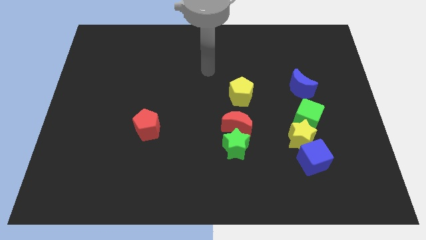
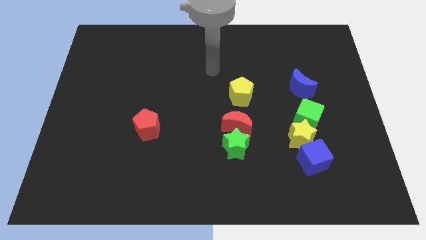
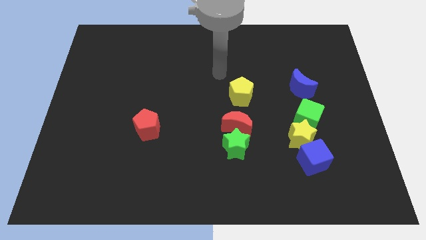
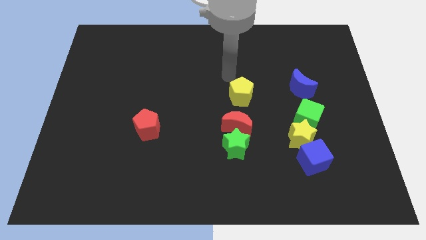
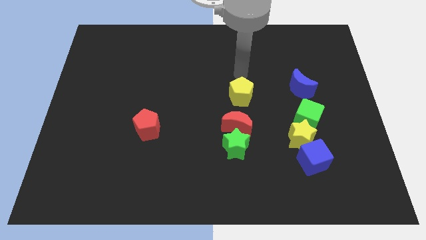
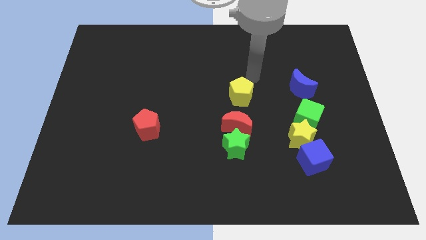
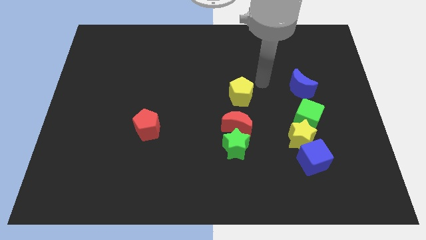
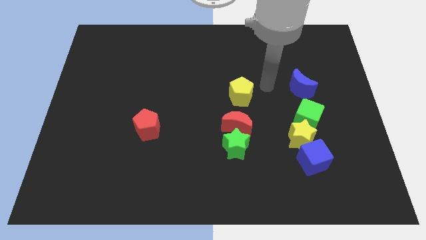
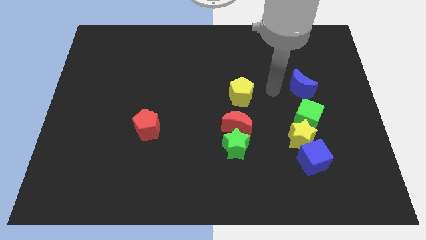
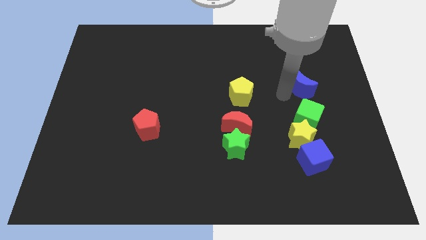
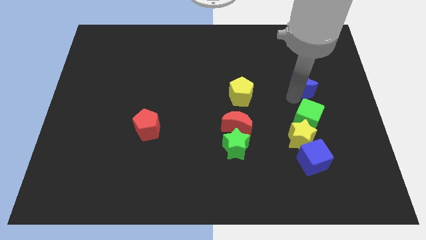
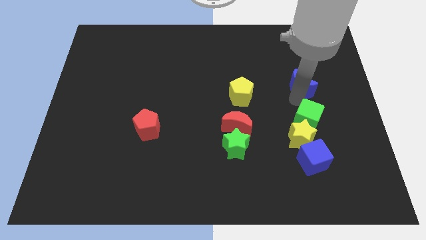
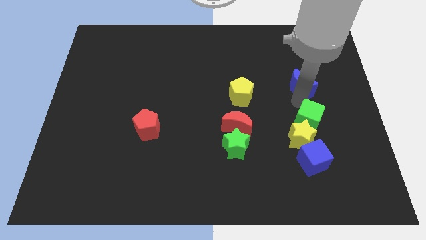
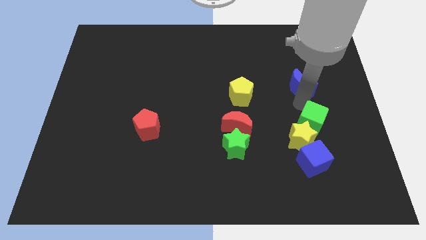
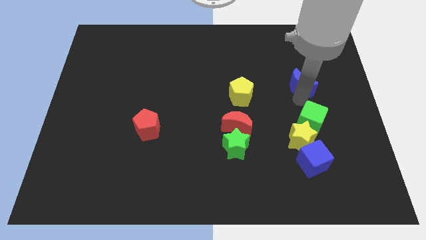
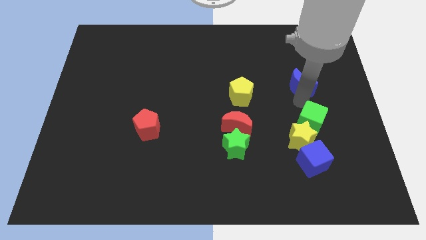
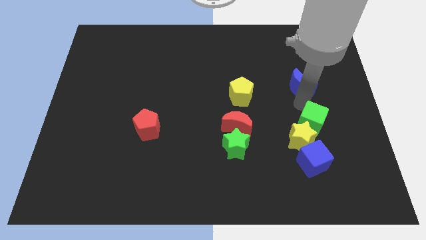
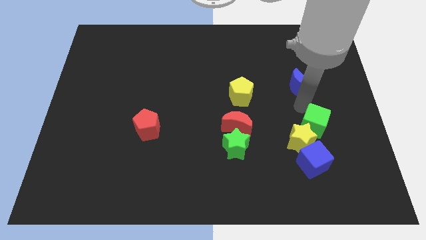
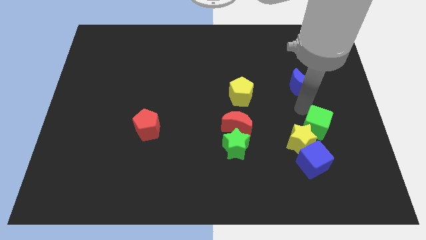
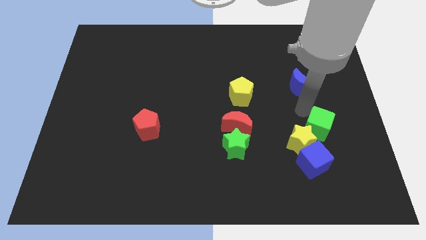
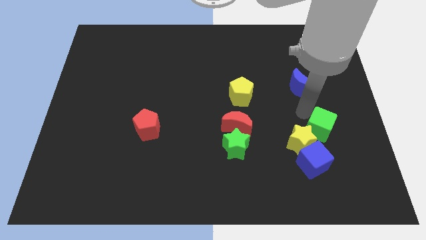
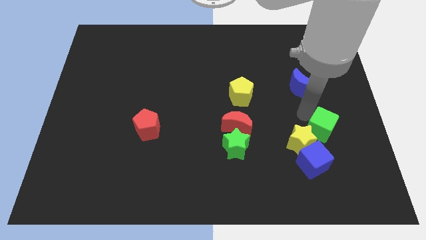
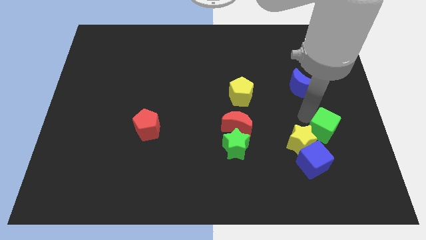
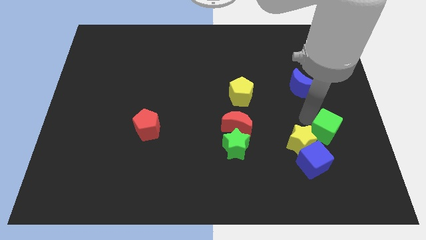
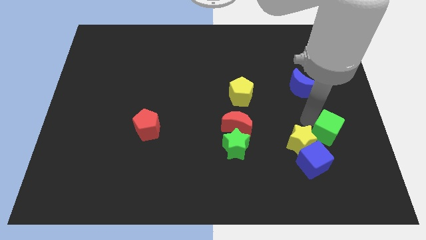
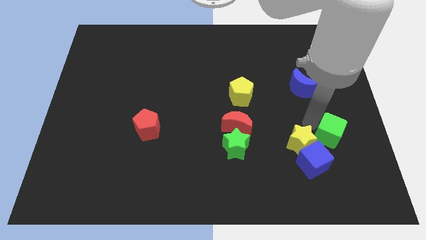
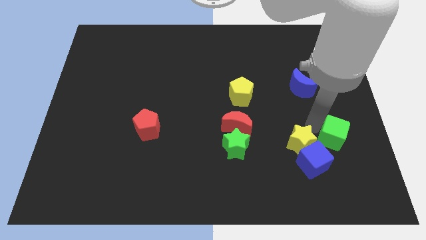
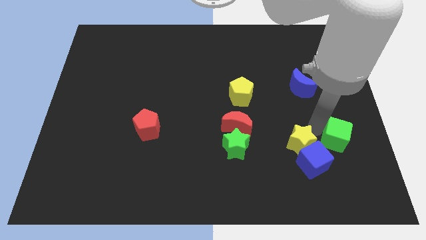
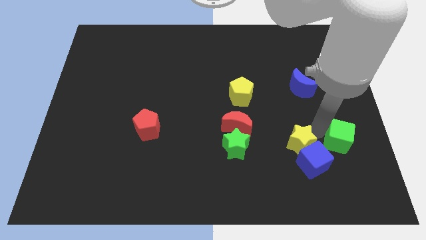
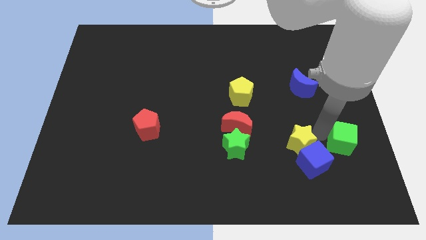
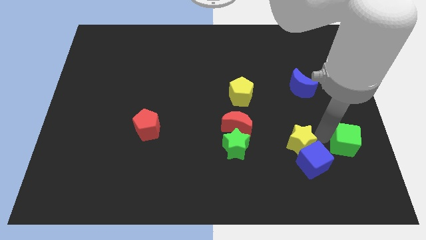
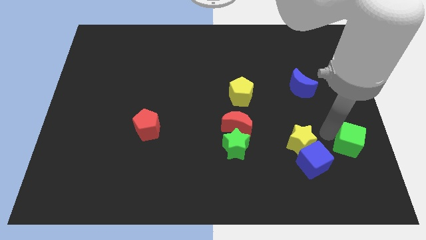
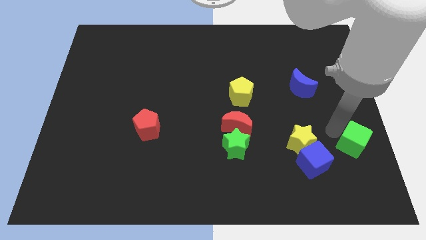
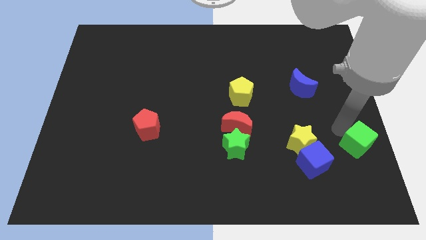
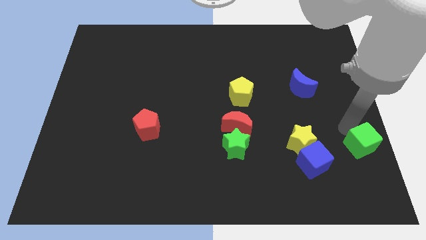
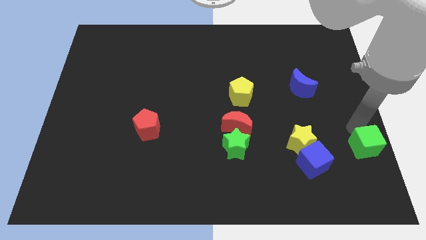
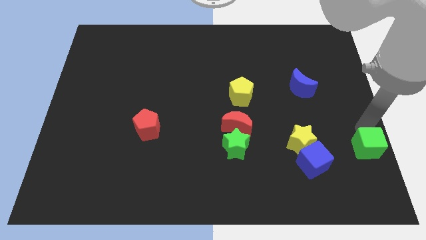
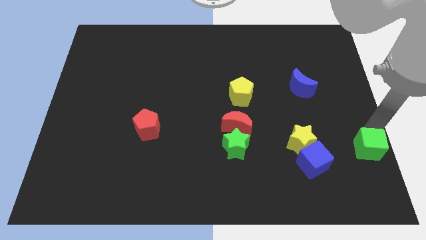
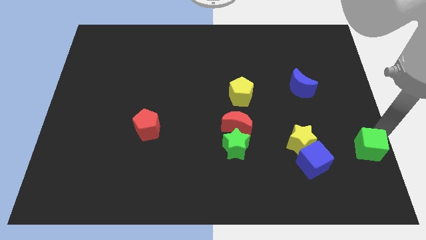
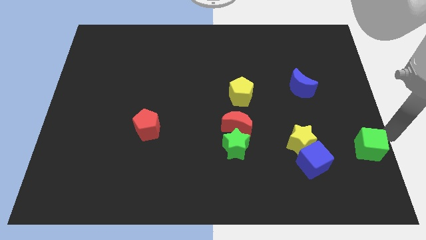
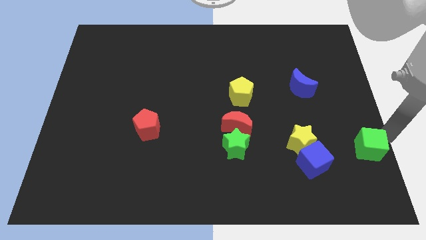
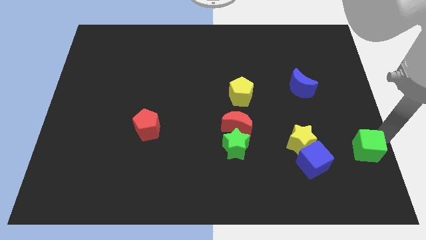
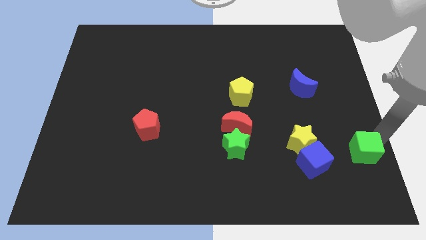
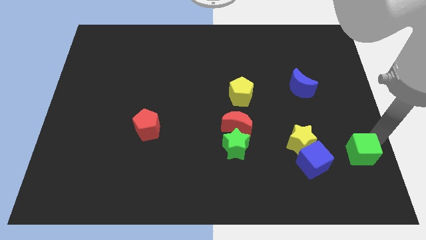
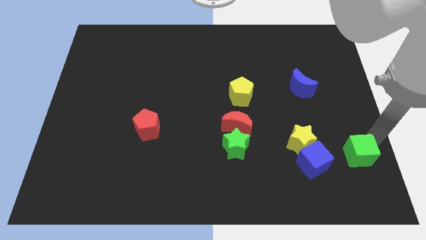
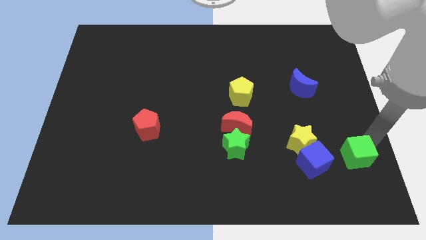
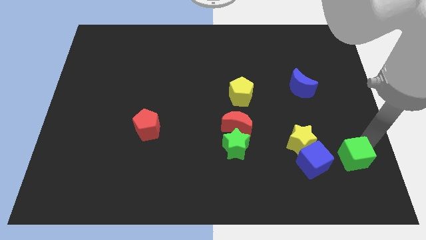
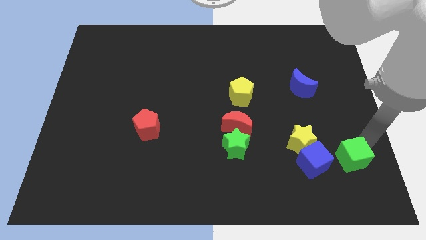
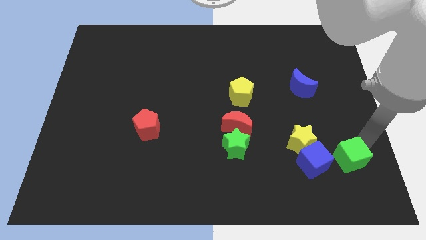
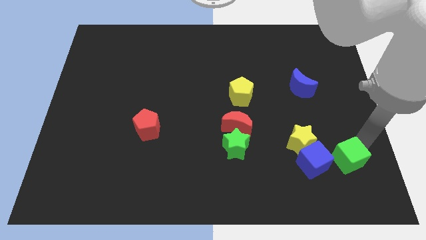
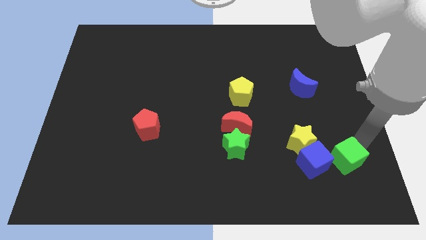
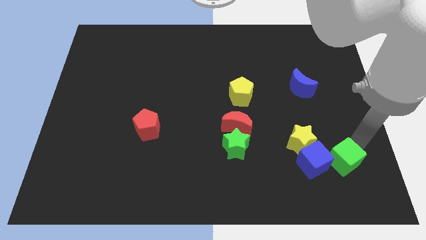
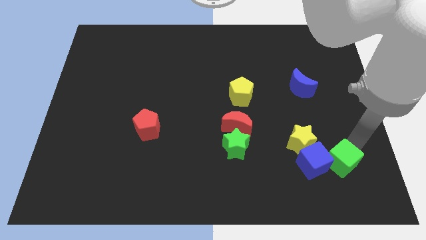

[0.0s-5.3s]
slide the green cube to the bottom right side of the blue cube

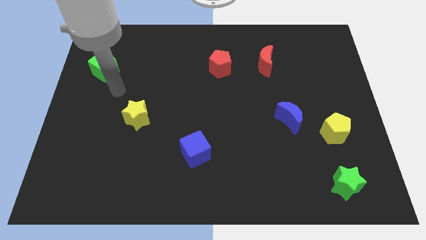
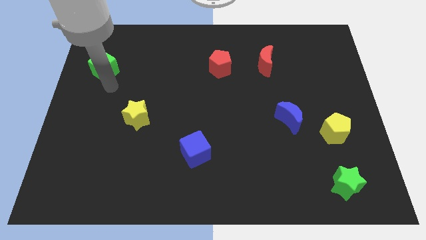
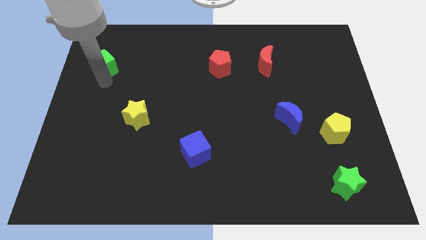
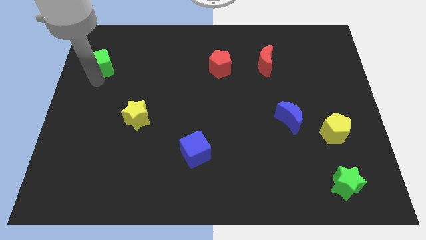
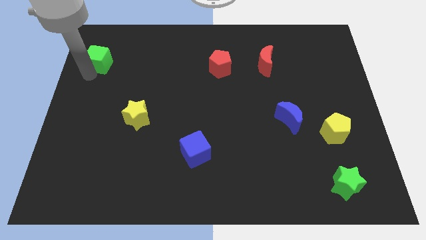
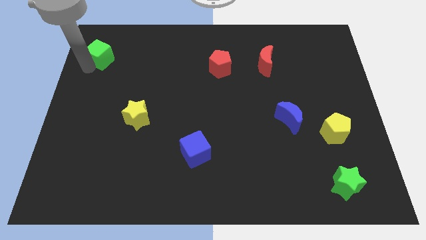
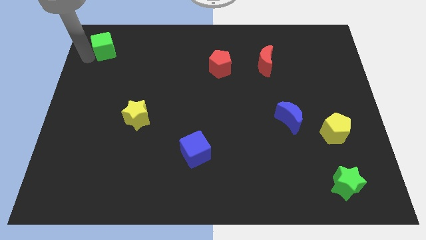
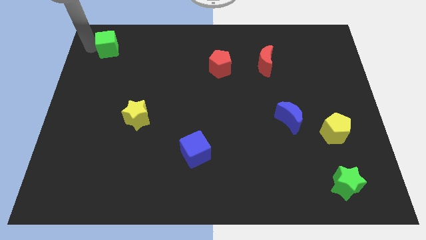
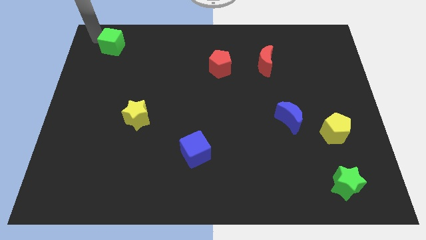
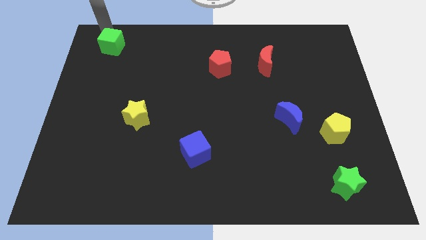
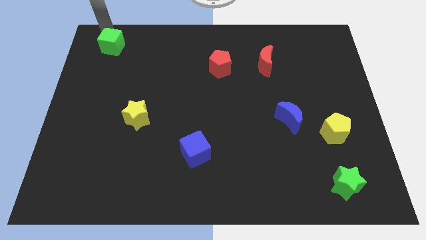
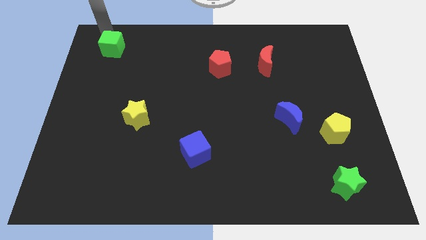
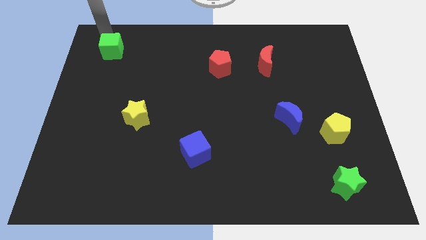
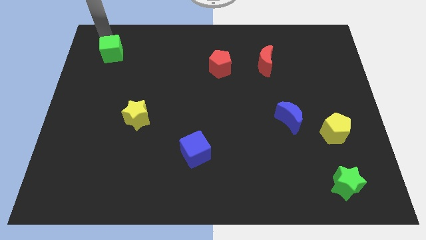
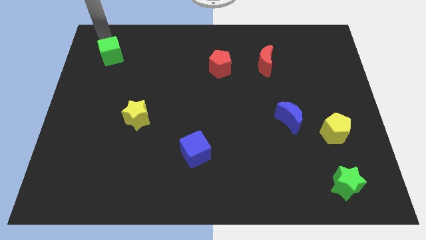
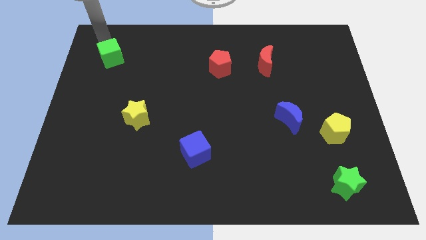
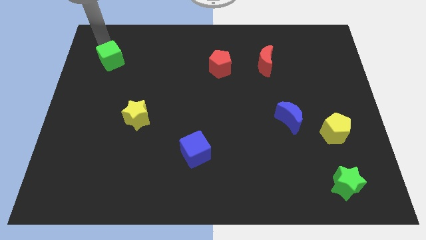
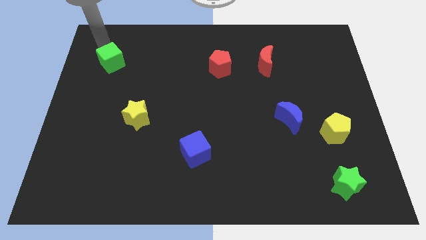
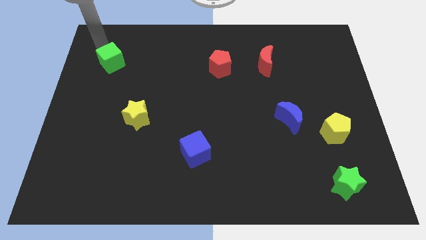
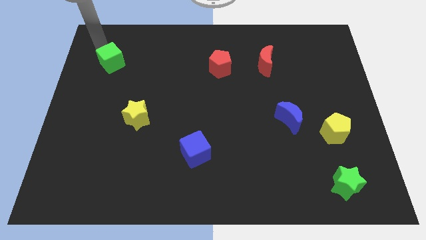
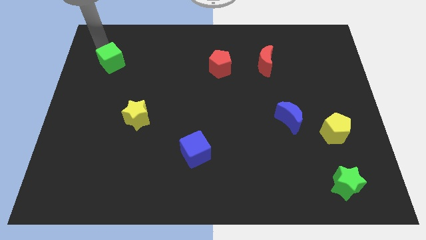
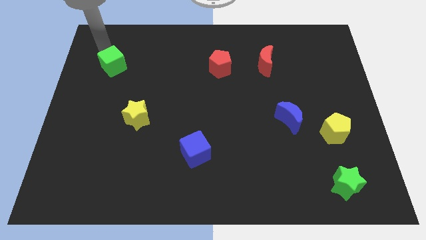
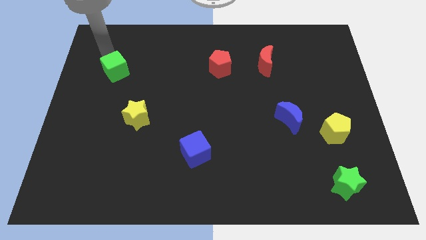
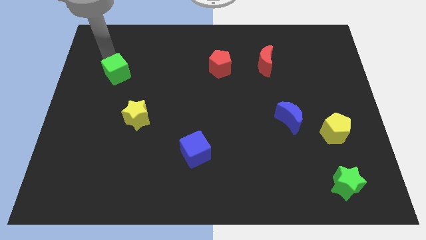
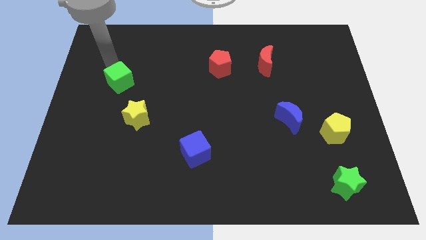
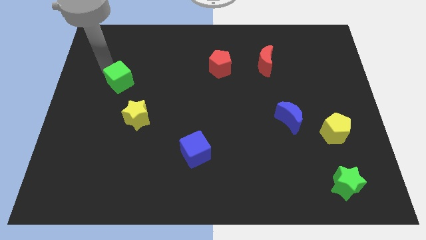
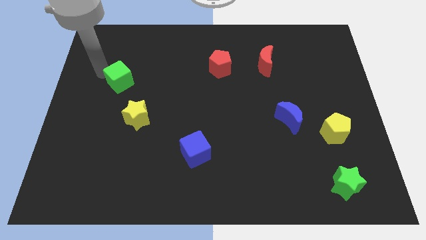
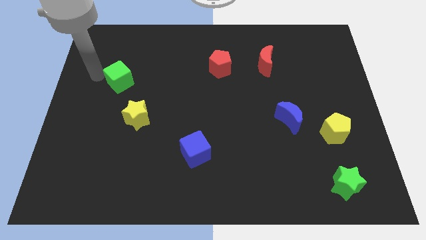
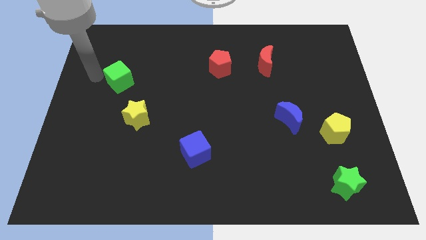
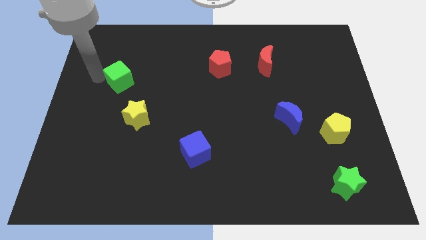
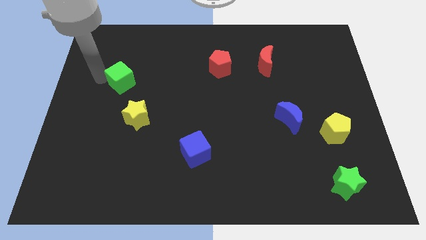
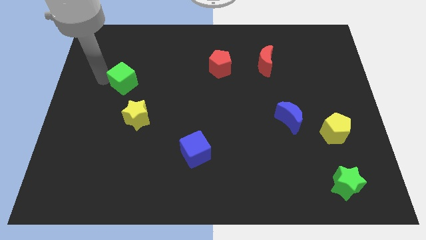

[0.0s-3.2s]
put the green cube to the top of the yellow star
